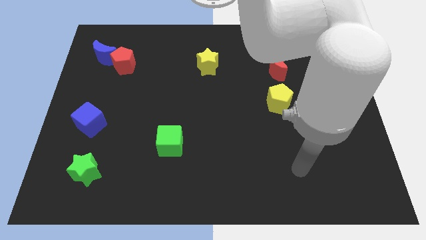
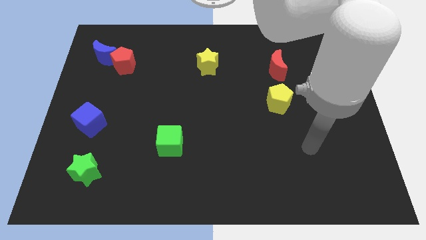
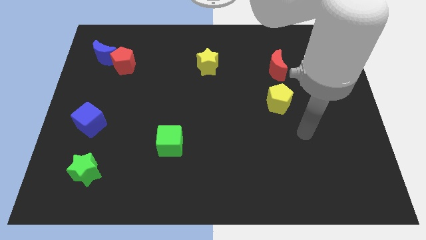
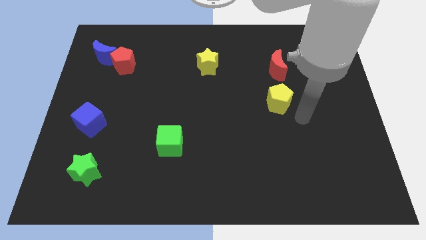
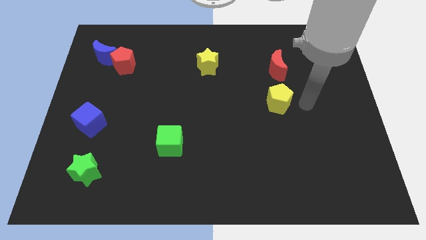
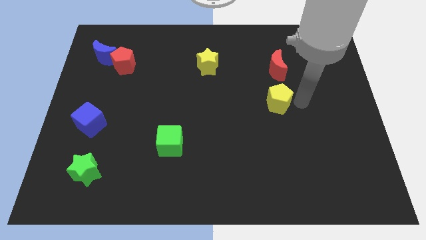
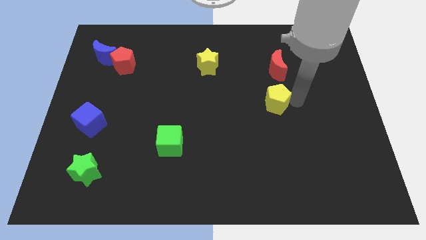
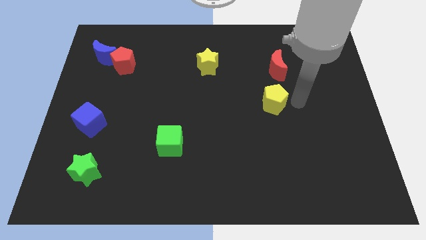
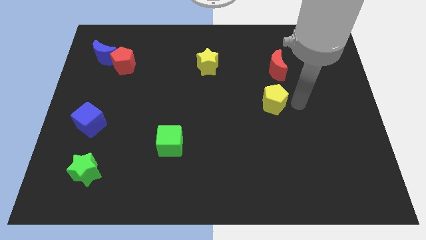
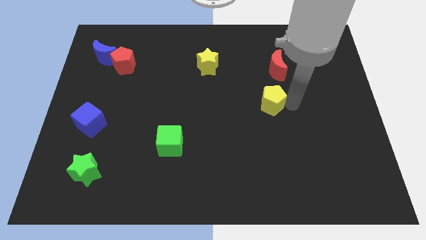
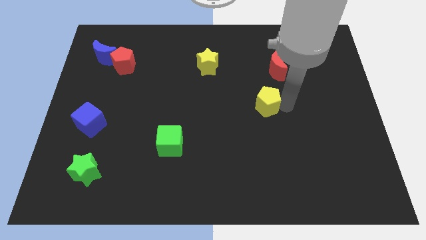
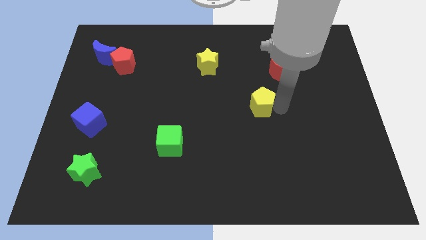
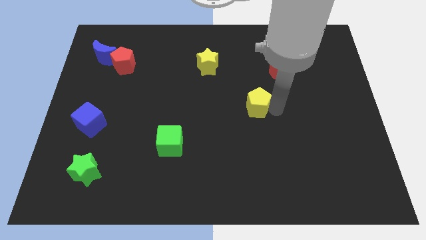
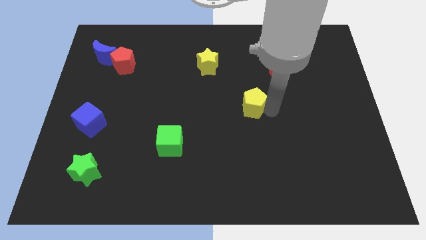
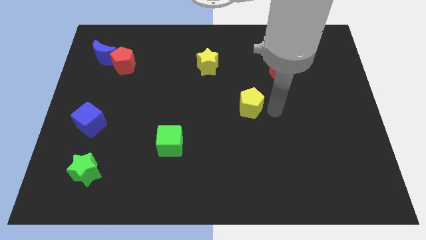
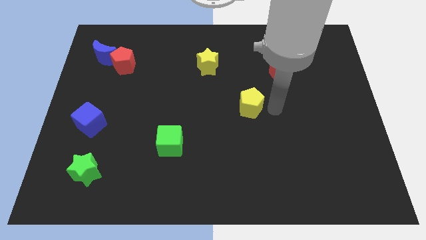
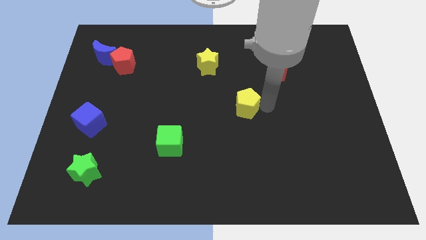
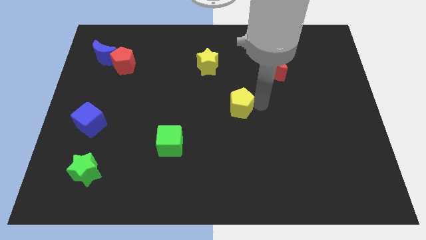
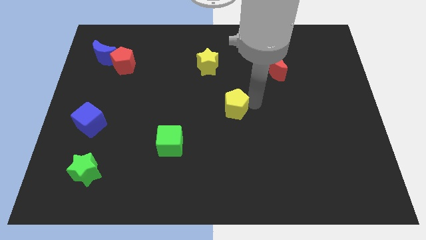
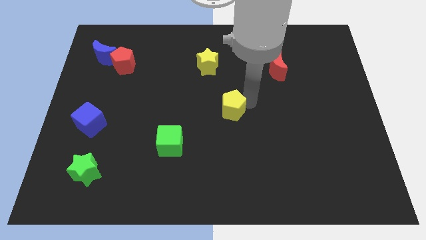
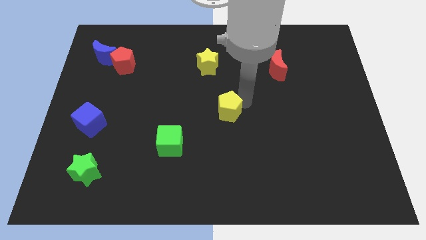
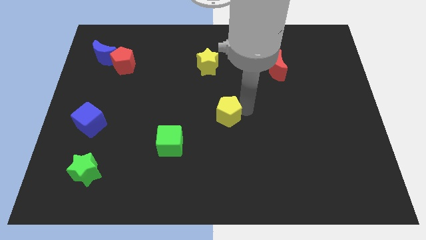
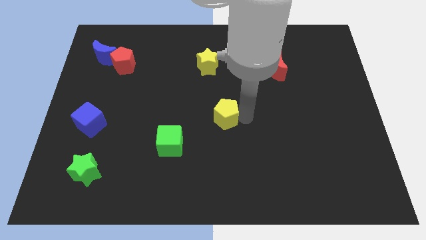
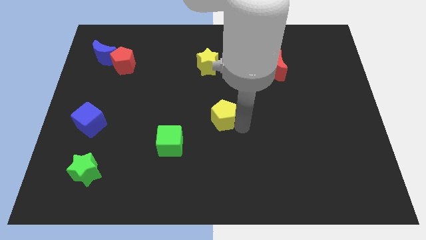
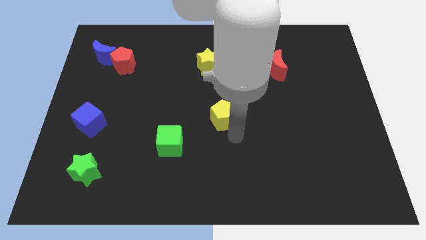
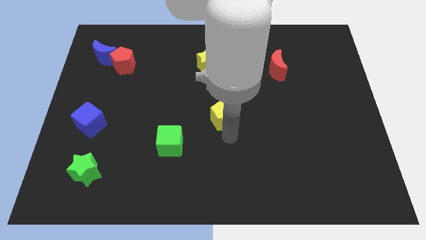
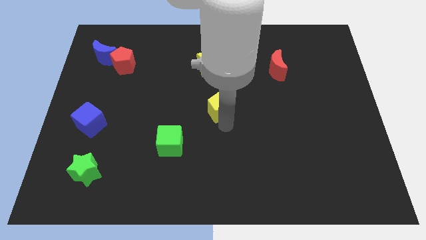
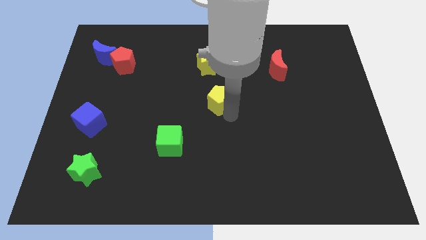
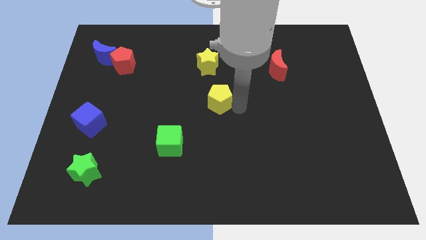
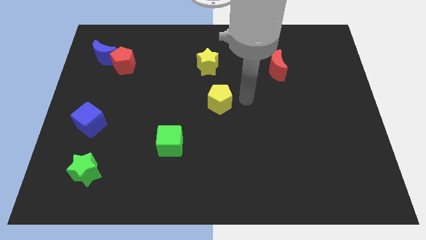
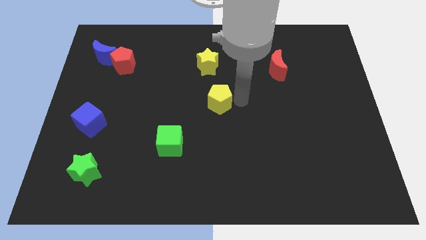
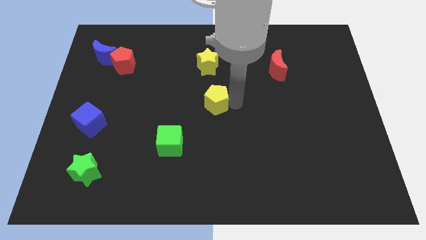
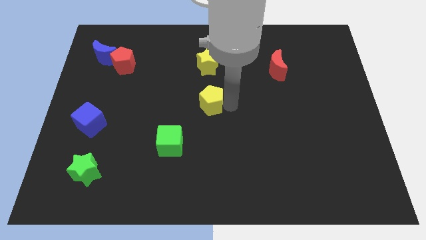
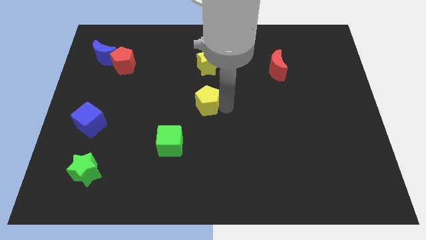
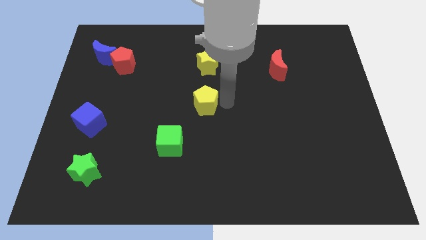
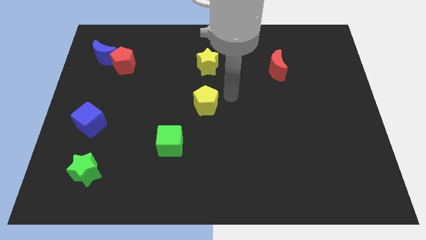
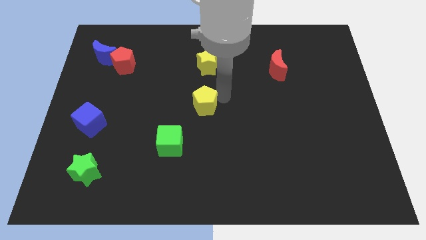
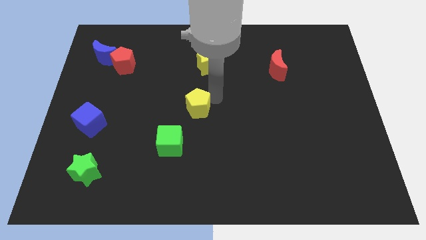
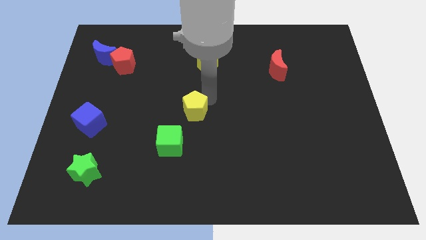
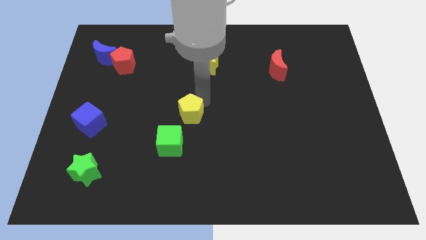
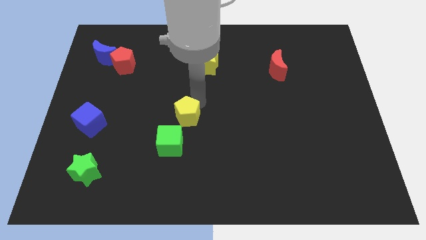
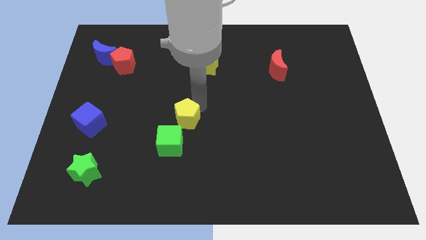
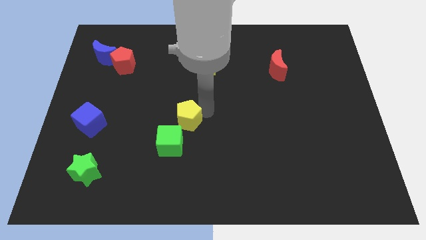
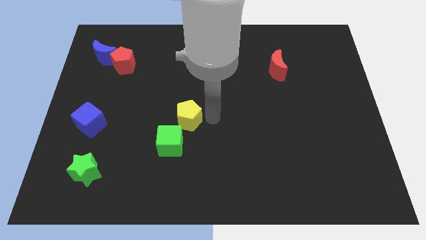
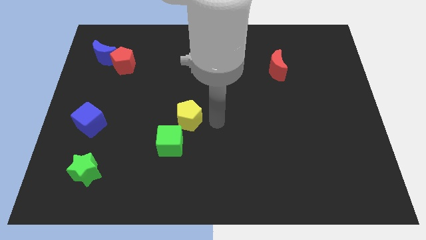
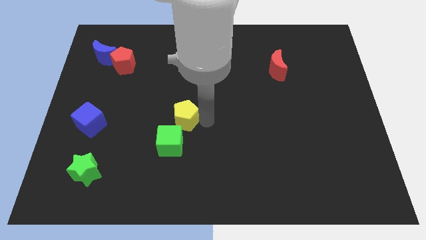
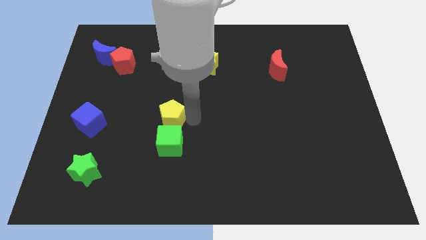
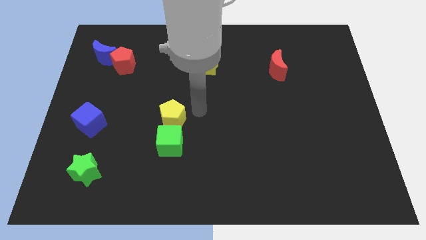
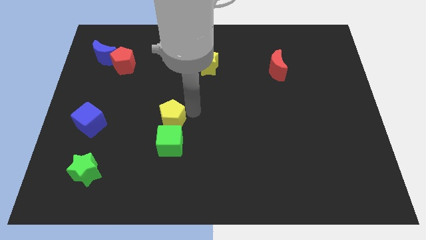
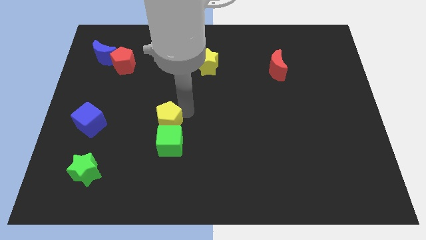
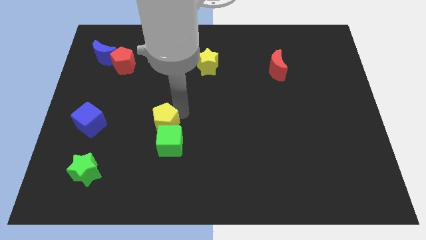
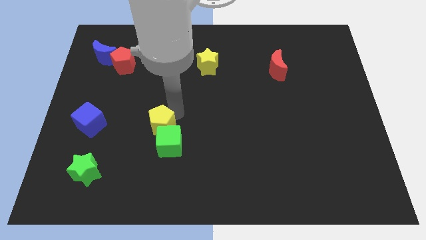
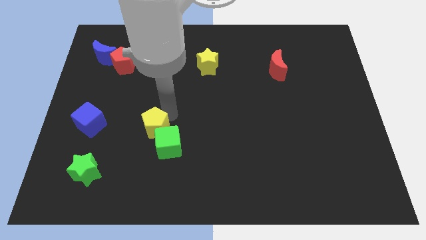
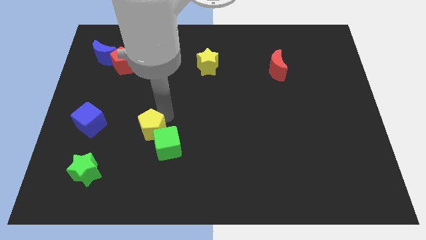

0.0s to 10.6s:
slide the yellow pentagon to the left side of the green cube

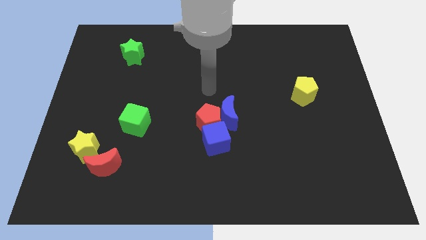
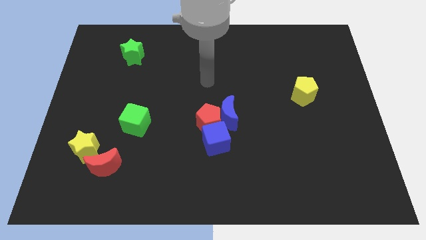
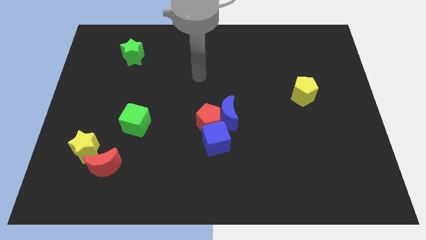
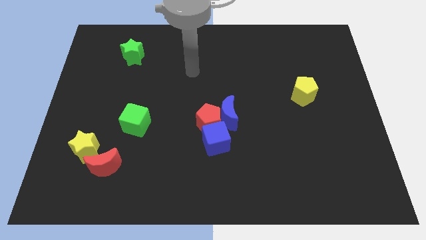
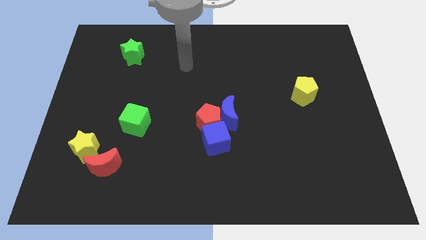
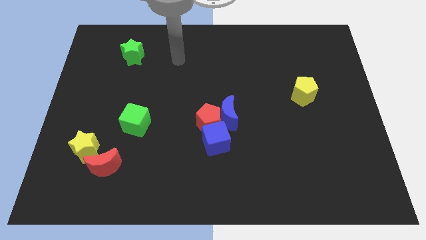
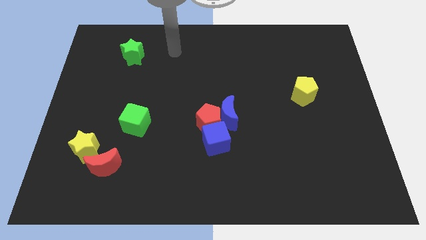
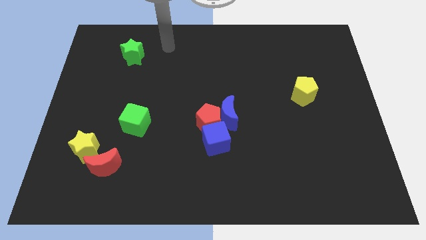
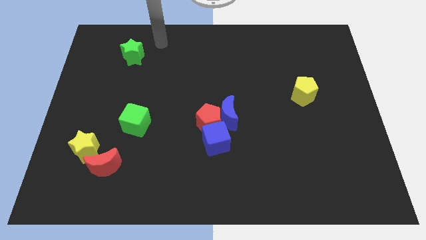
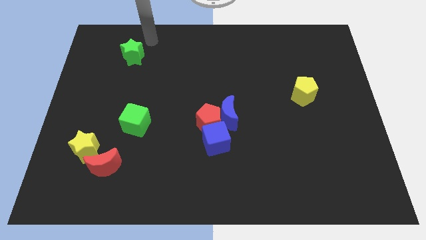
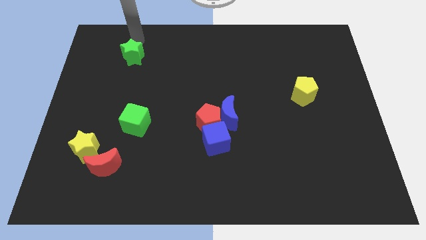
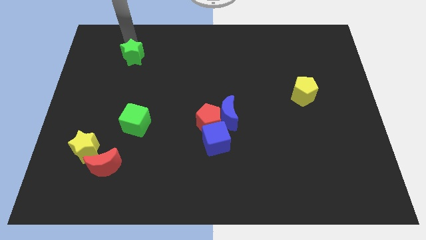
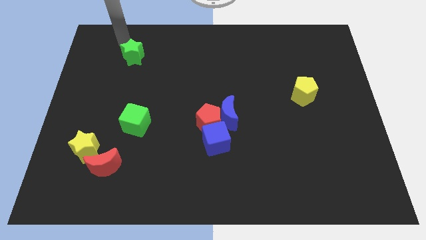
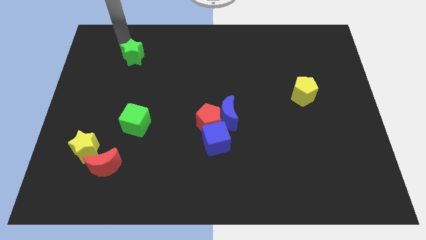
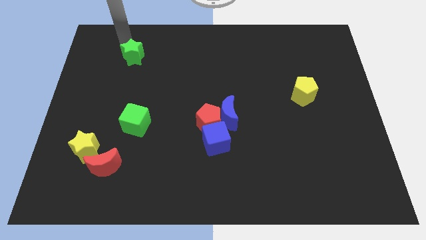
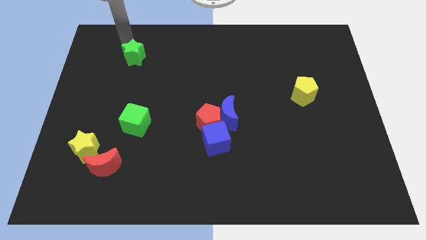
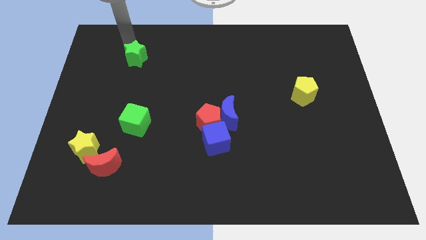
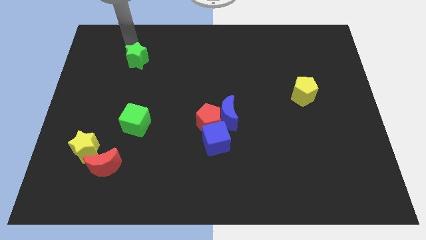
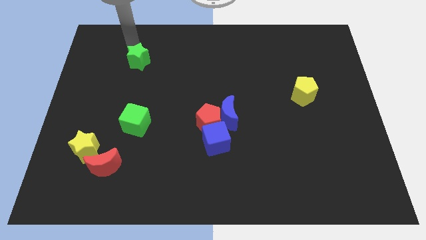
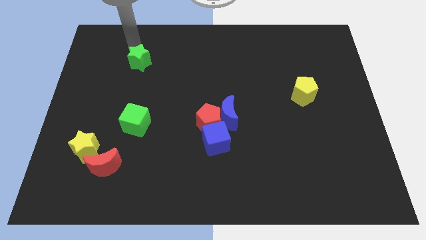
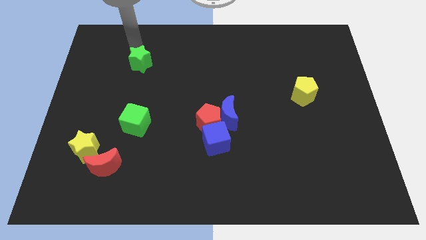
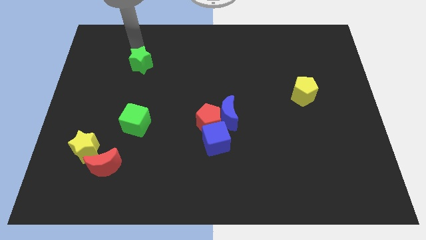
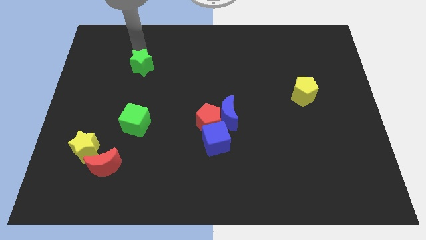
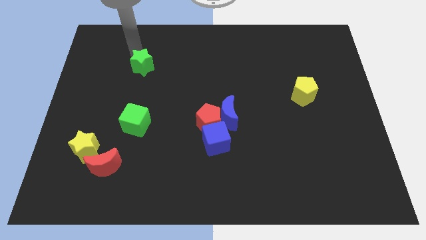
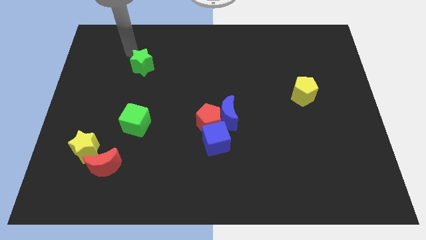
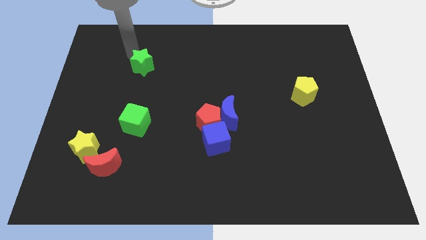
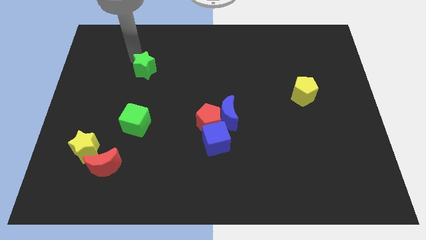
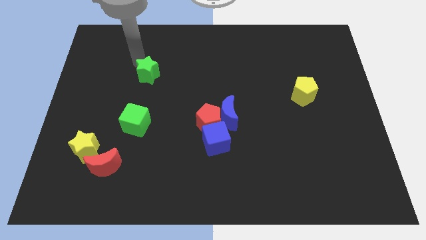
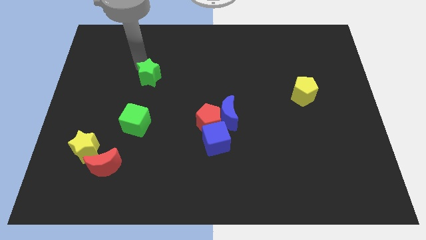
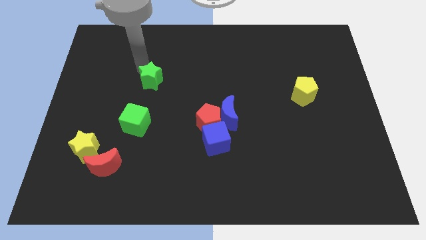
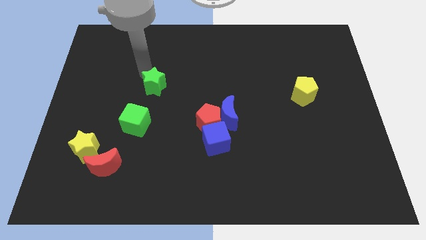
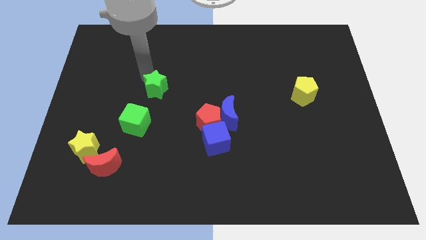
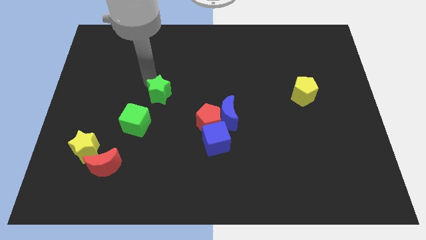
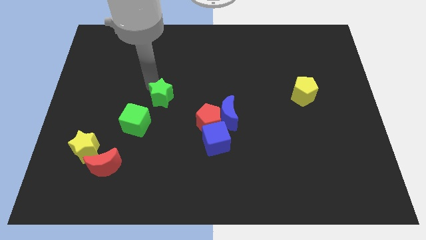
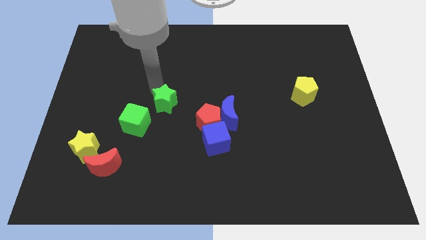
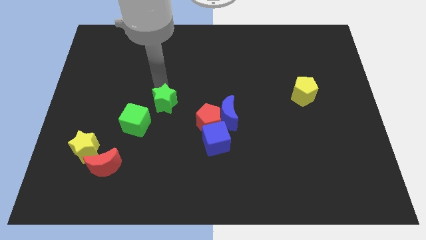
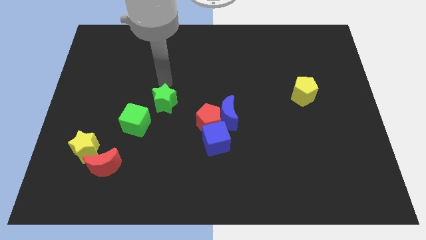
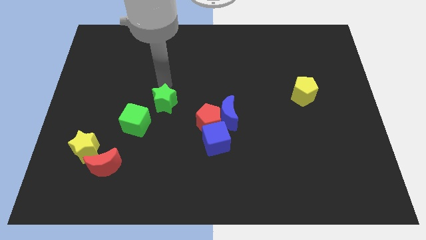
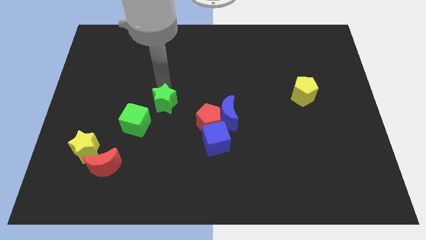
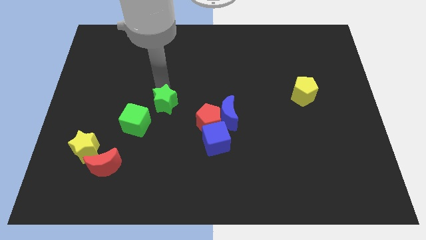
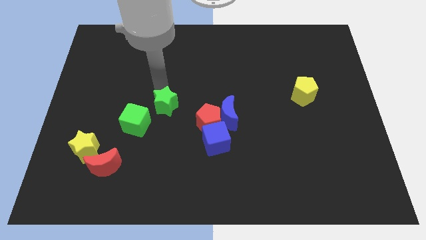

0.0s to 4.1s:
slide the green star left of the red pentagon
